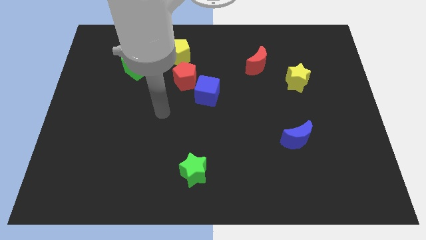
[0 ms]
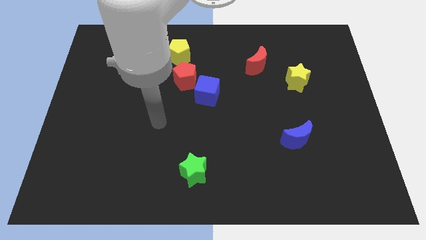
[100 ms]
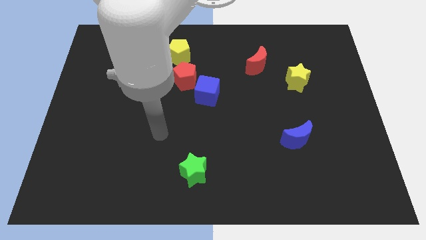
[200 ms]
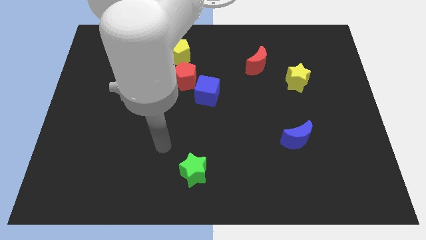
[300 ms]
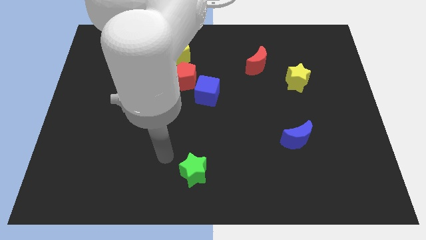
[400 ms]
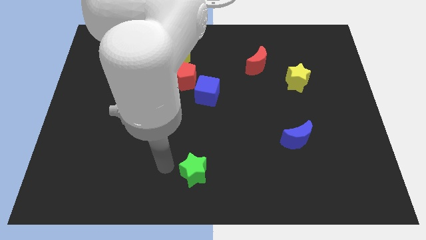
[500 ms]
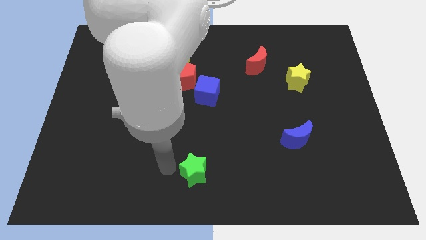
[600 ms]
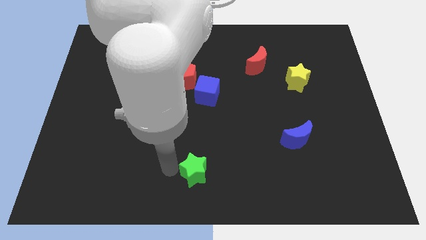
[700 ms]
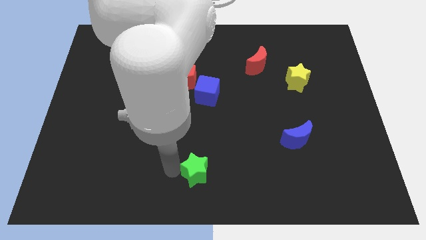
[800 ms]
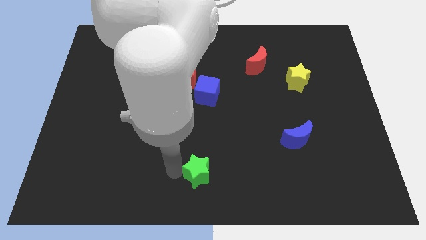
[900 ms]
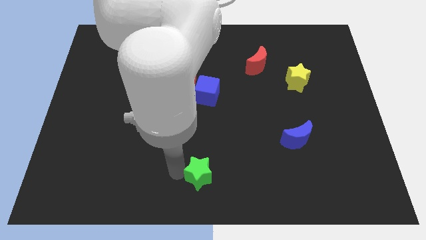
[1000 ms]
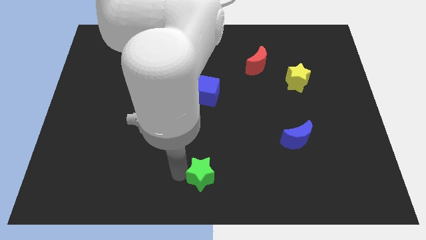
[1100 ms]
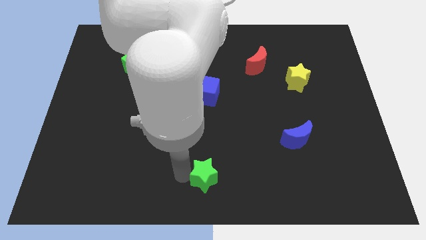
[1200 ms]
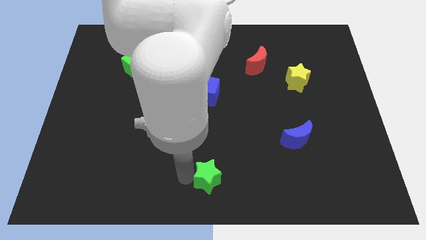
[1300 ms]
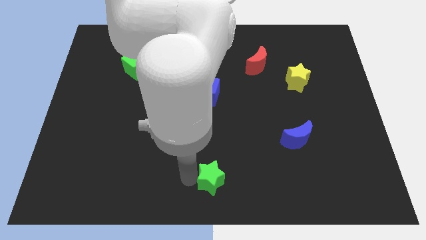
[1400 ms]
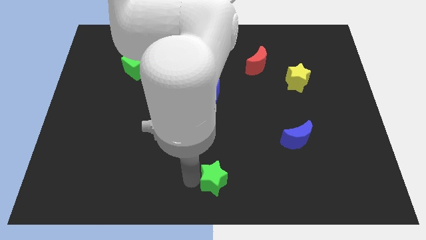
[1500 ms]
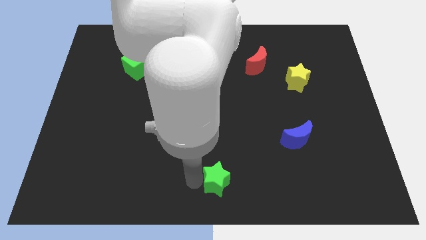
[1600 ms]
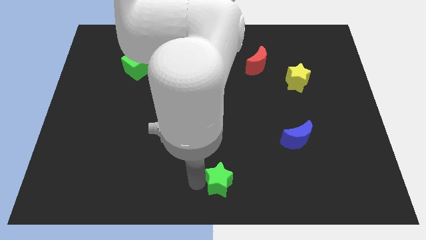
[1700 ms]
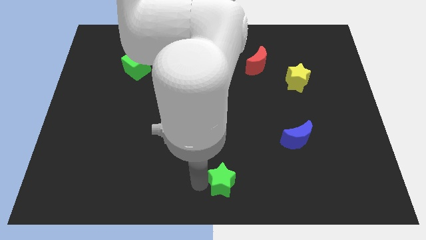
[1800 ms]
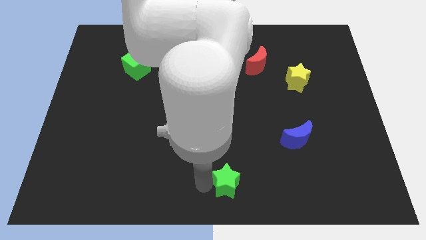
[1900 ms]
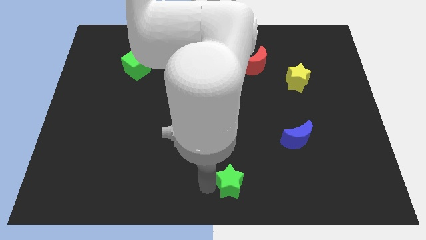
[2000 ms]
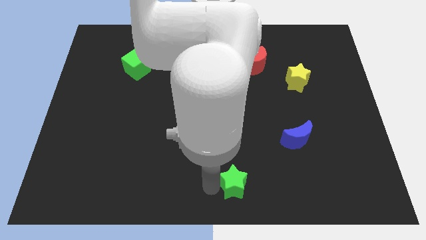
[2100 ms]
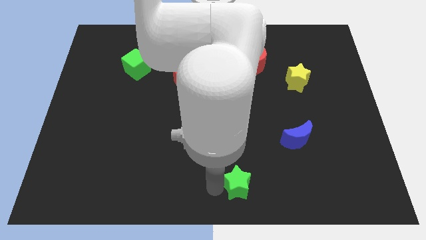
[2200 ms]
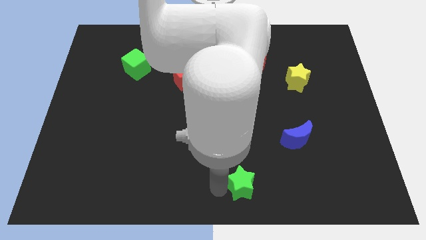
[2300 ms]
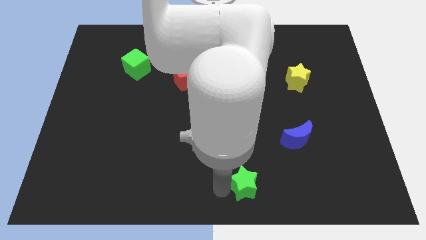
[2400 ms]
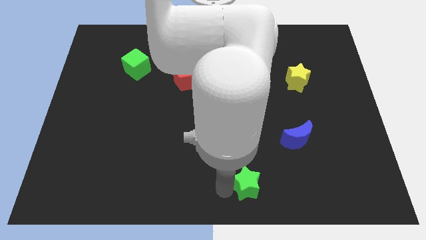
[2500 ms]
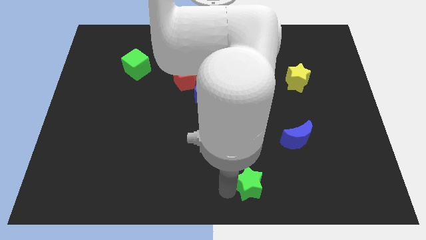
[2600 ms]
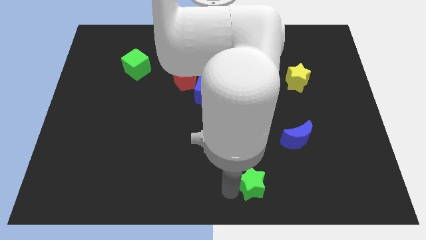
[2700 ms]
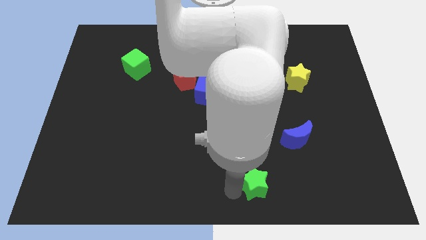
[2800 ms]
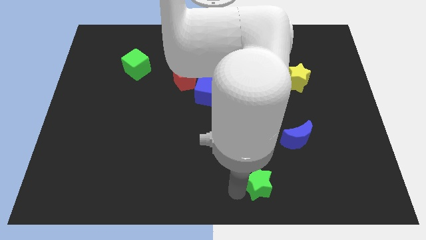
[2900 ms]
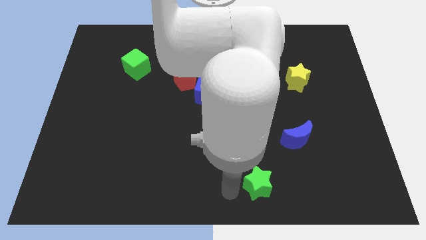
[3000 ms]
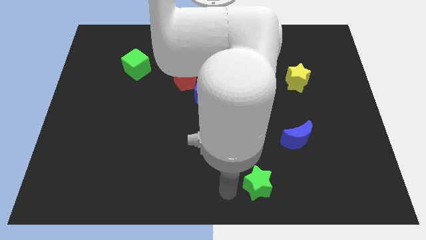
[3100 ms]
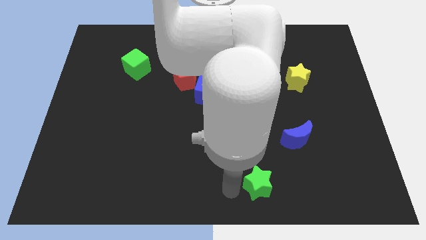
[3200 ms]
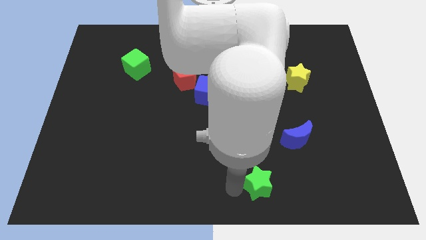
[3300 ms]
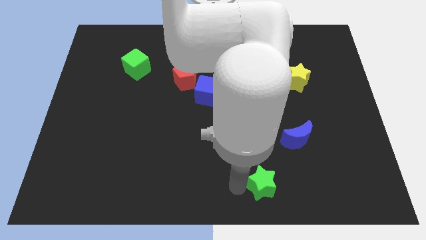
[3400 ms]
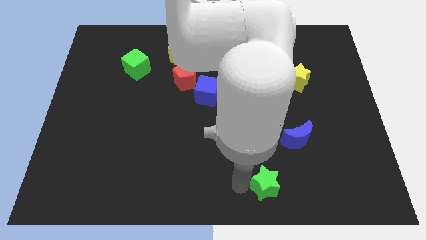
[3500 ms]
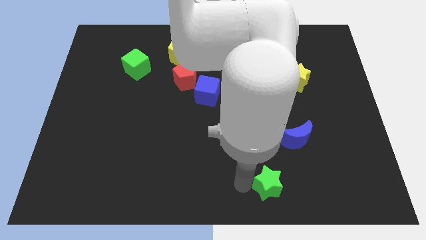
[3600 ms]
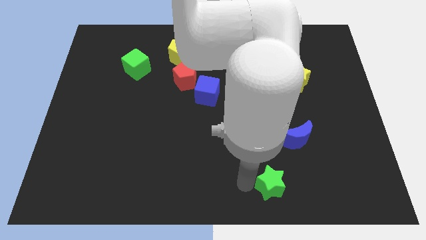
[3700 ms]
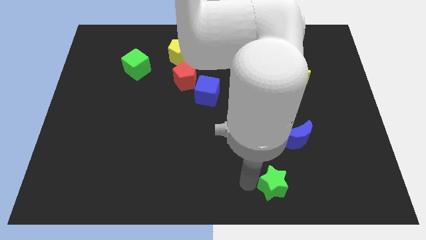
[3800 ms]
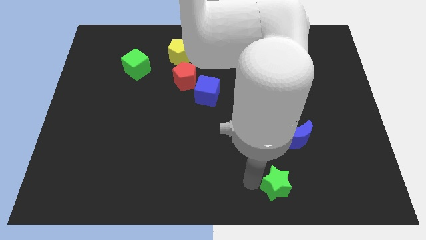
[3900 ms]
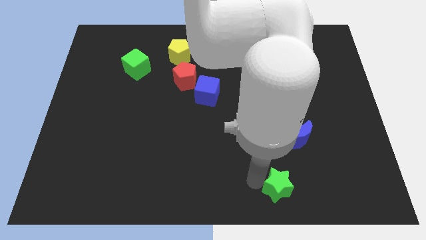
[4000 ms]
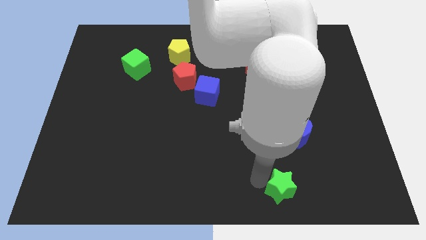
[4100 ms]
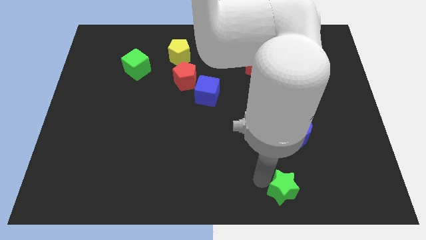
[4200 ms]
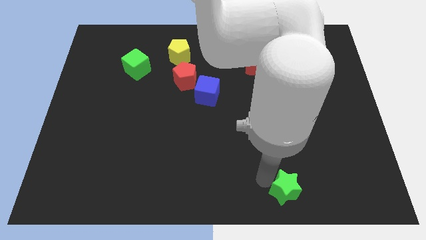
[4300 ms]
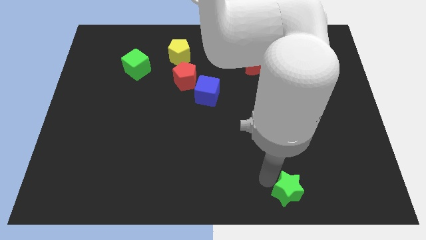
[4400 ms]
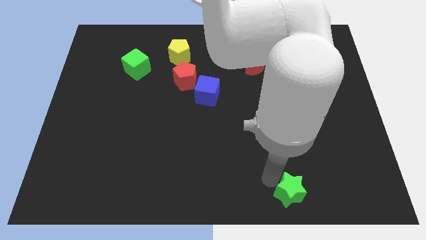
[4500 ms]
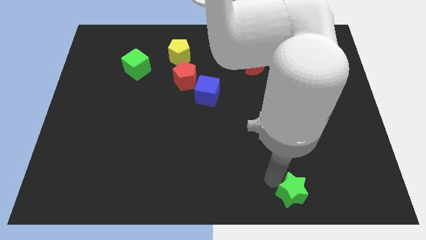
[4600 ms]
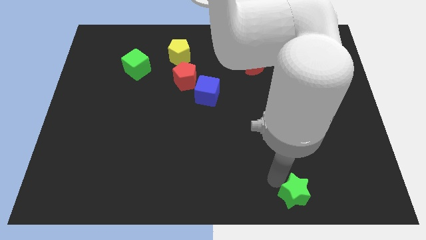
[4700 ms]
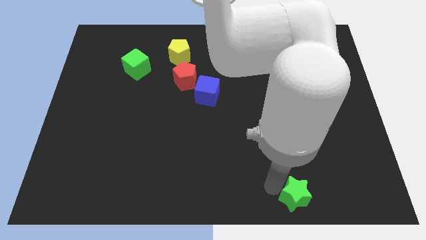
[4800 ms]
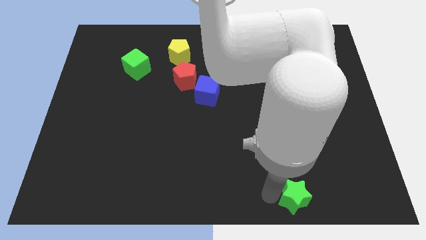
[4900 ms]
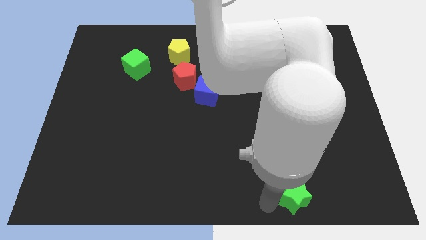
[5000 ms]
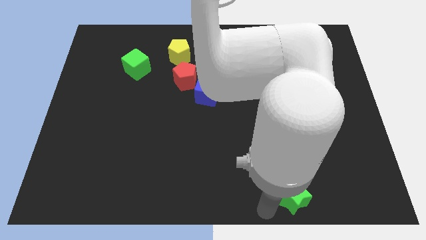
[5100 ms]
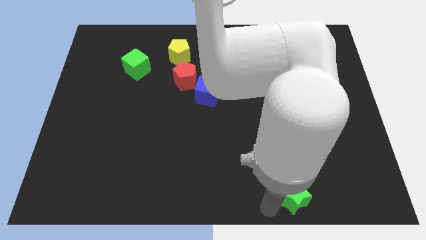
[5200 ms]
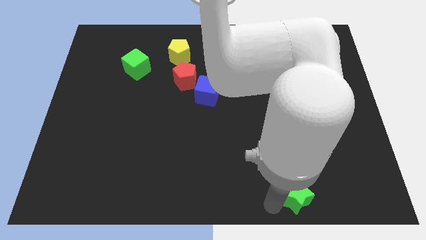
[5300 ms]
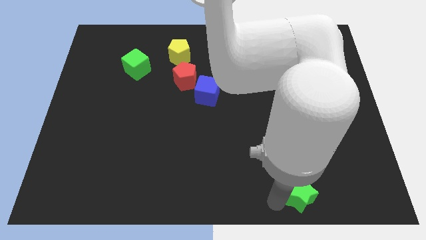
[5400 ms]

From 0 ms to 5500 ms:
move the green star right

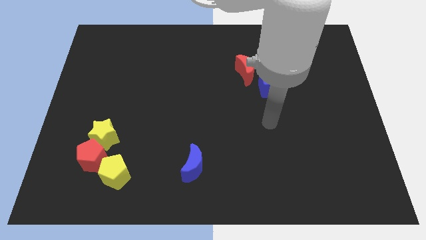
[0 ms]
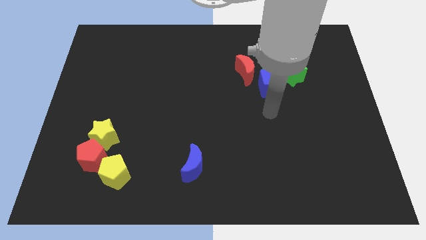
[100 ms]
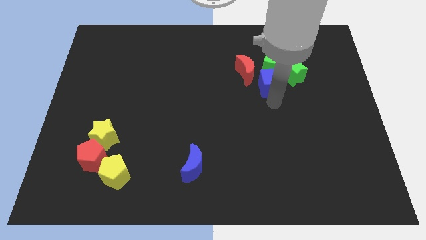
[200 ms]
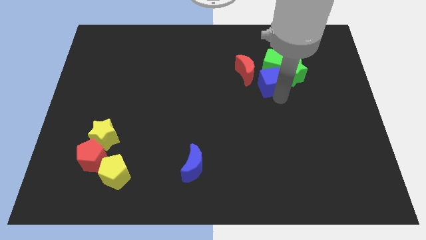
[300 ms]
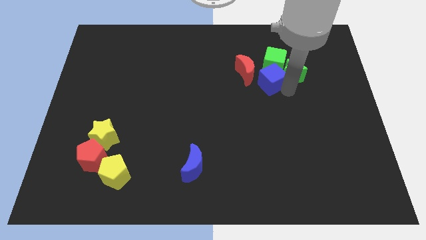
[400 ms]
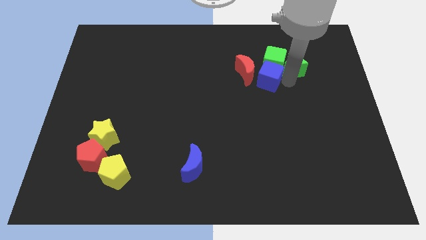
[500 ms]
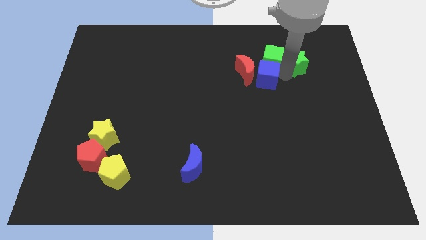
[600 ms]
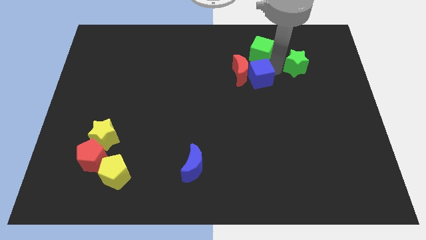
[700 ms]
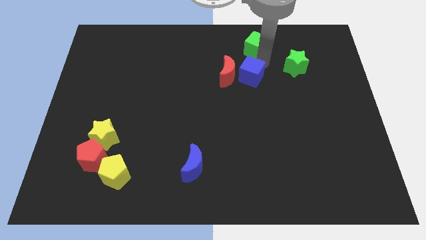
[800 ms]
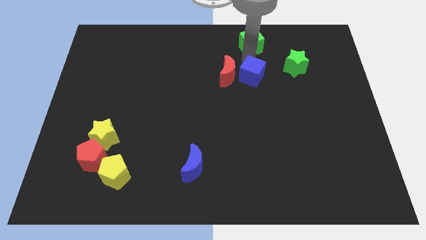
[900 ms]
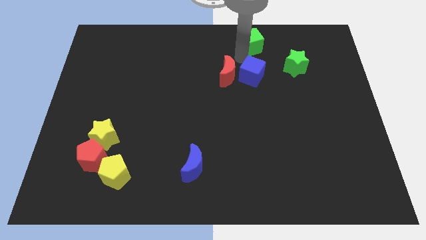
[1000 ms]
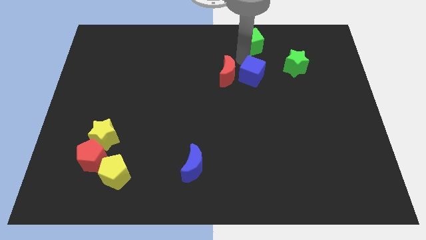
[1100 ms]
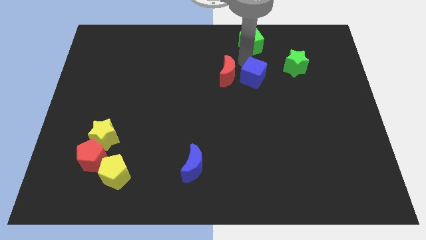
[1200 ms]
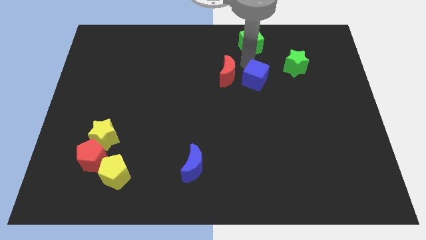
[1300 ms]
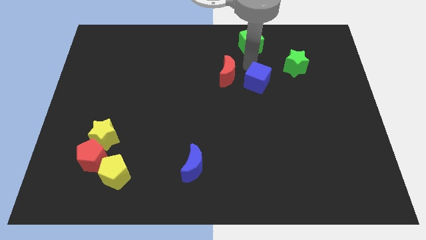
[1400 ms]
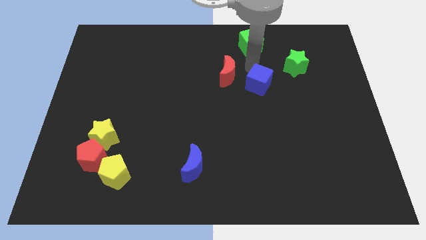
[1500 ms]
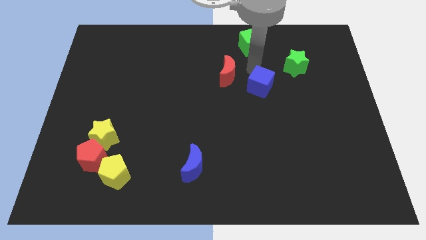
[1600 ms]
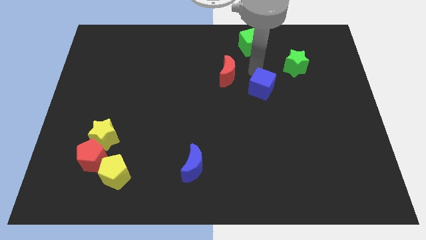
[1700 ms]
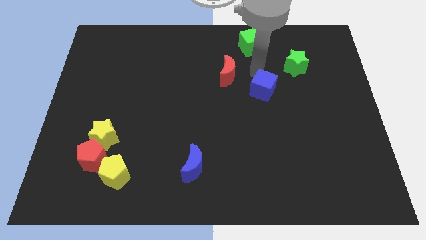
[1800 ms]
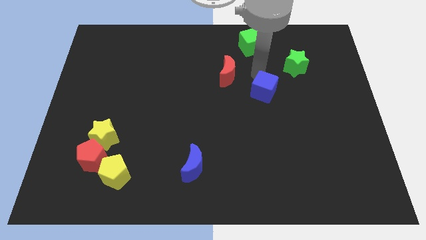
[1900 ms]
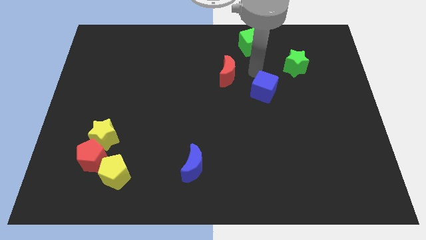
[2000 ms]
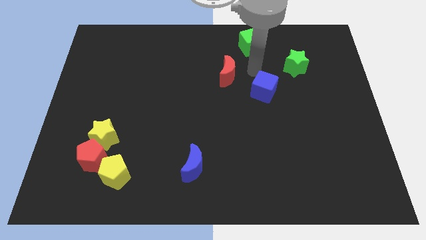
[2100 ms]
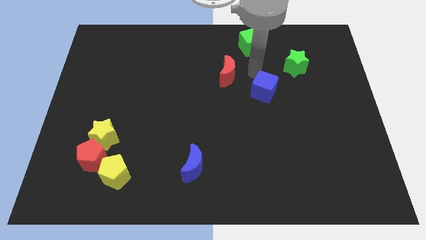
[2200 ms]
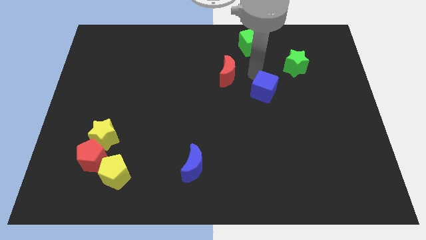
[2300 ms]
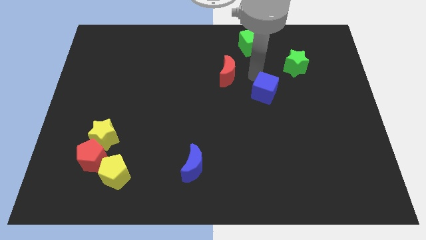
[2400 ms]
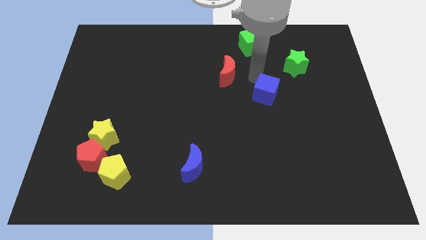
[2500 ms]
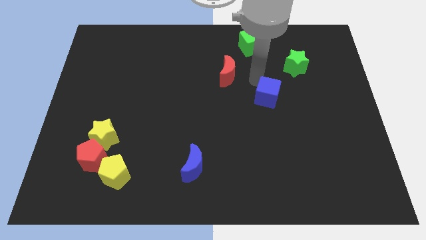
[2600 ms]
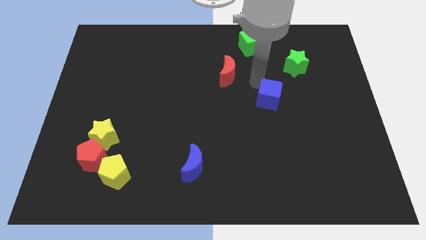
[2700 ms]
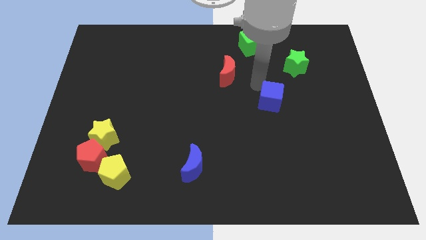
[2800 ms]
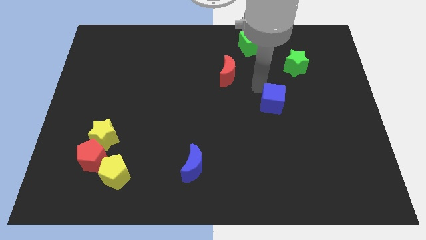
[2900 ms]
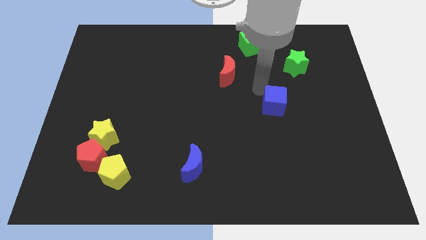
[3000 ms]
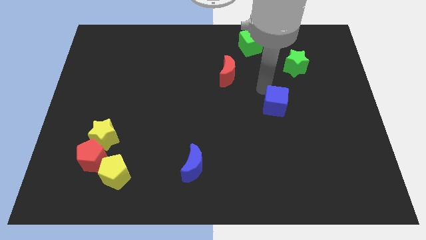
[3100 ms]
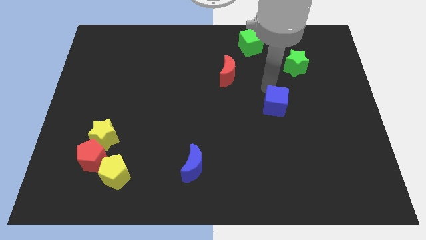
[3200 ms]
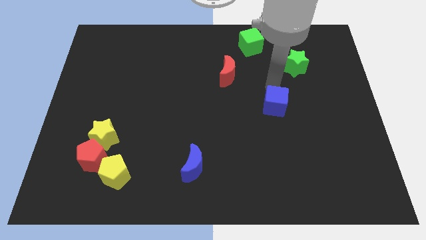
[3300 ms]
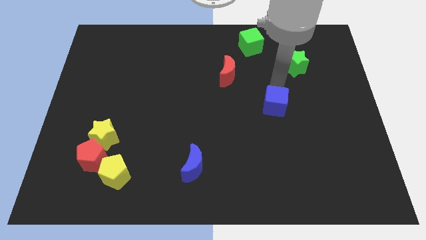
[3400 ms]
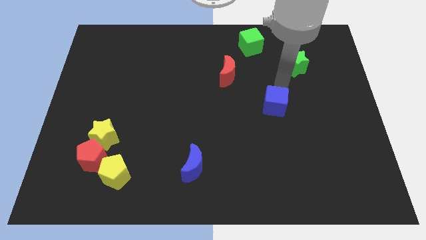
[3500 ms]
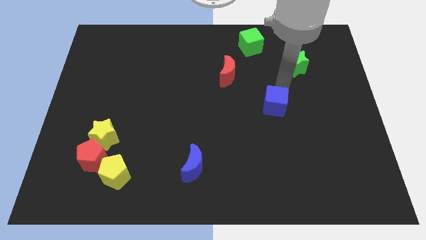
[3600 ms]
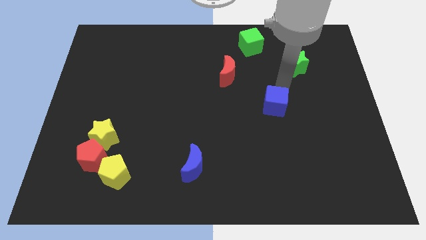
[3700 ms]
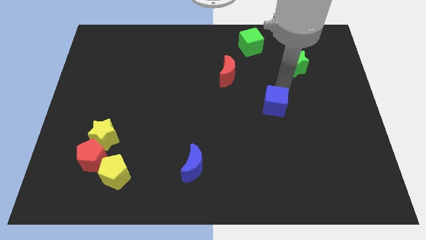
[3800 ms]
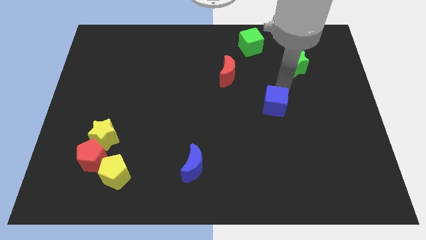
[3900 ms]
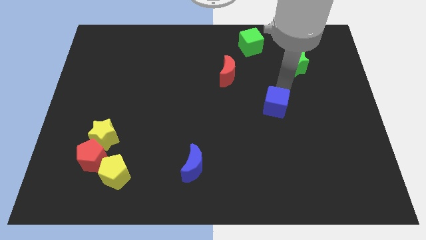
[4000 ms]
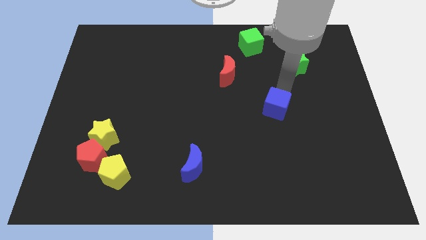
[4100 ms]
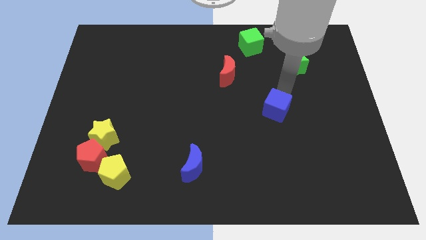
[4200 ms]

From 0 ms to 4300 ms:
slightly move the blue cube downwards
